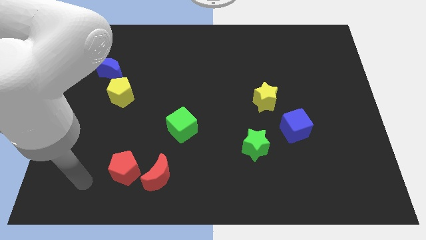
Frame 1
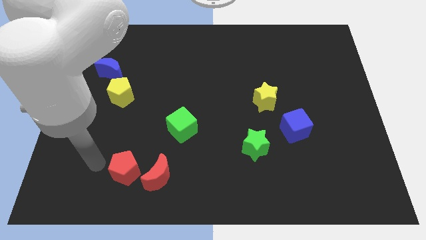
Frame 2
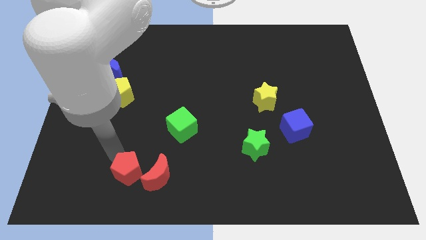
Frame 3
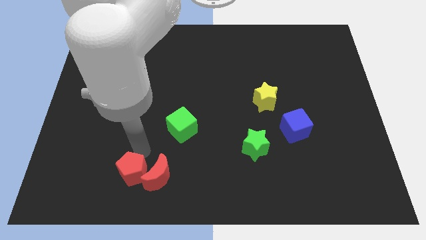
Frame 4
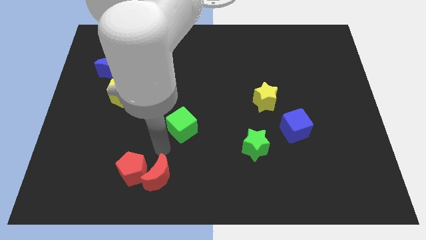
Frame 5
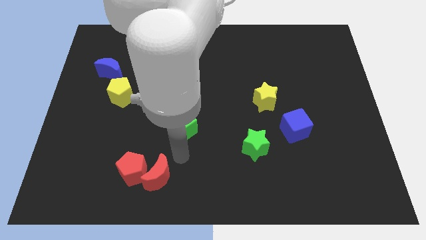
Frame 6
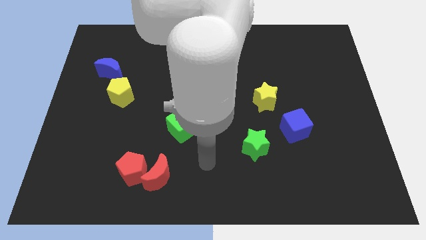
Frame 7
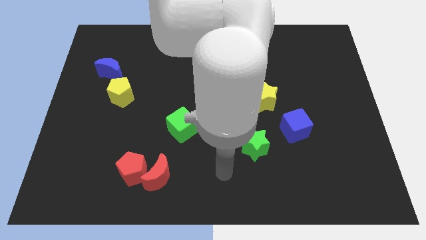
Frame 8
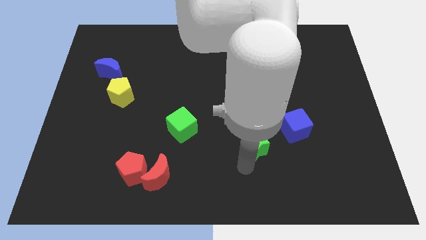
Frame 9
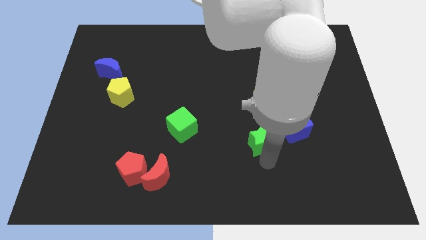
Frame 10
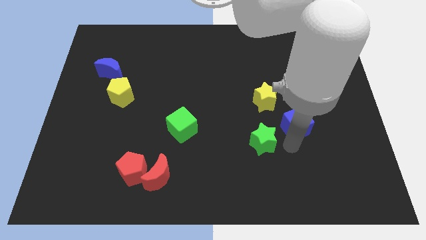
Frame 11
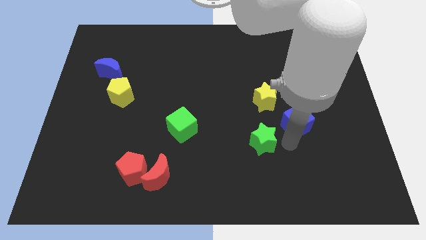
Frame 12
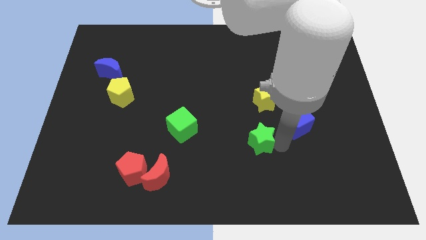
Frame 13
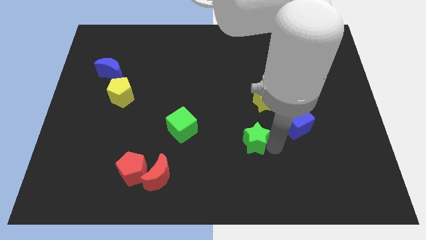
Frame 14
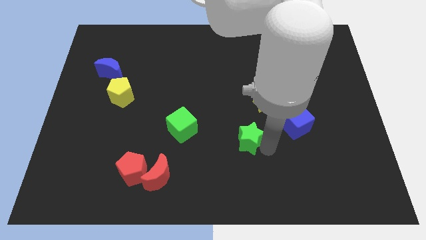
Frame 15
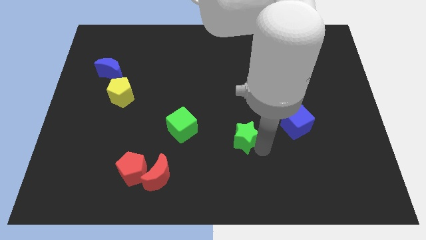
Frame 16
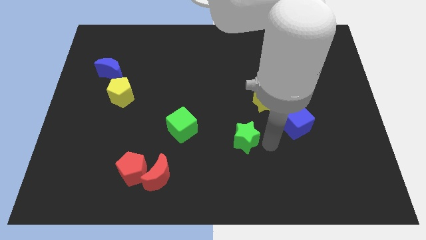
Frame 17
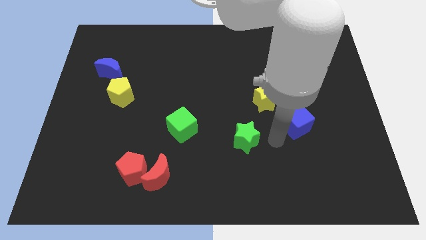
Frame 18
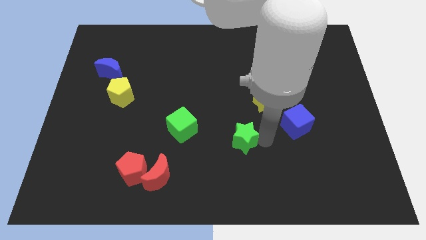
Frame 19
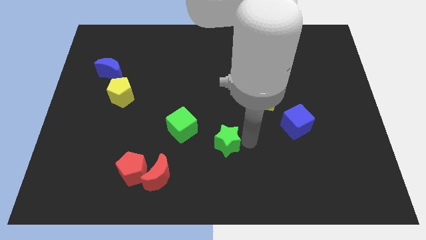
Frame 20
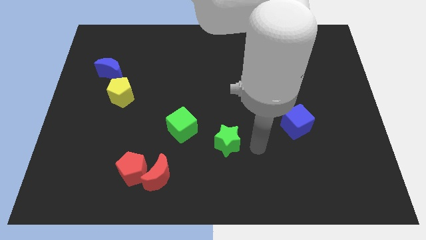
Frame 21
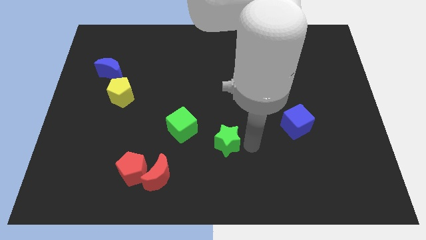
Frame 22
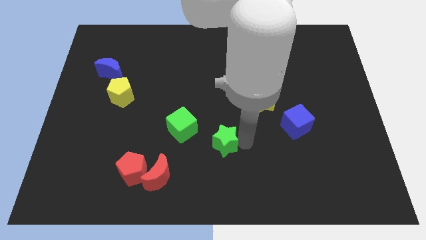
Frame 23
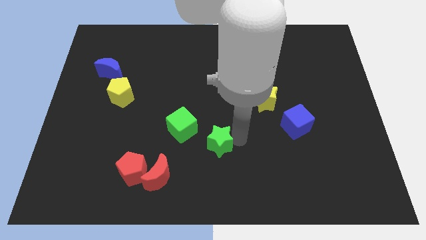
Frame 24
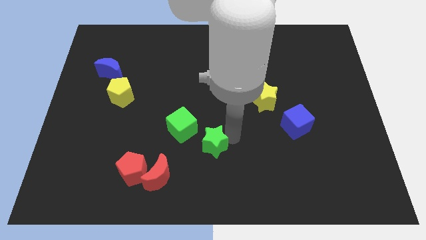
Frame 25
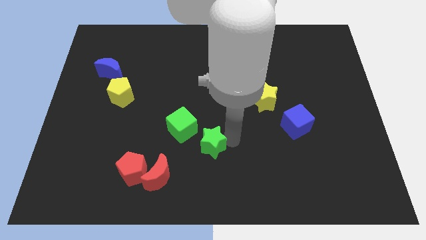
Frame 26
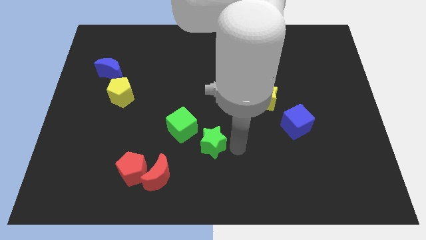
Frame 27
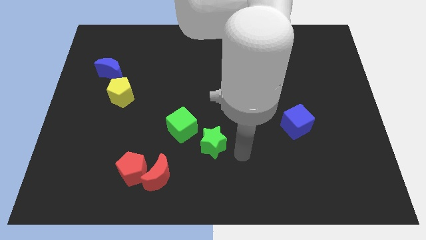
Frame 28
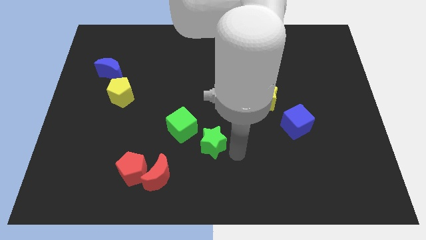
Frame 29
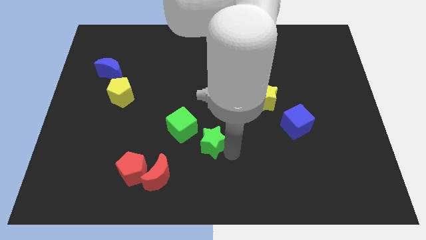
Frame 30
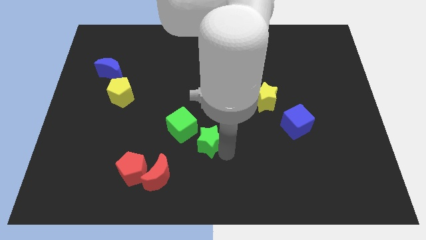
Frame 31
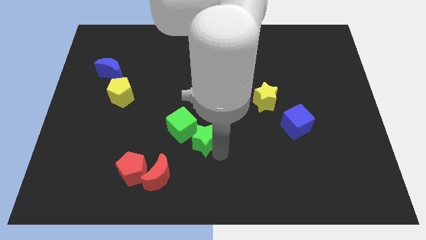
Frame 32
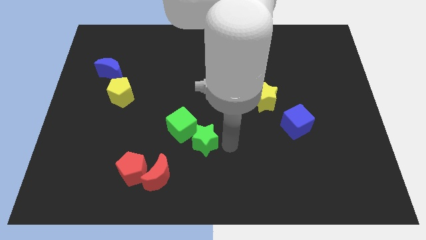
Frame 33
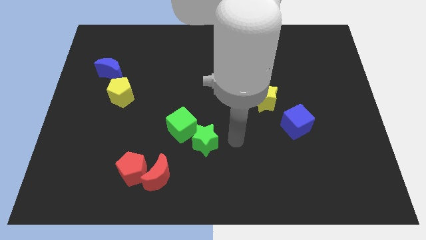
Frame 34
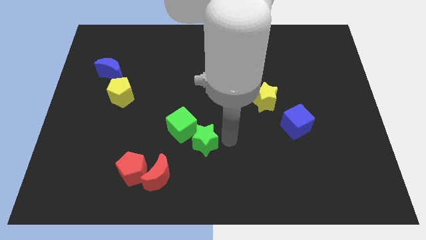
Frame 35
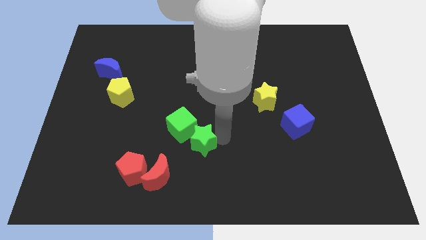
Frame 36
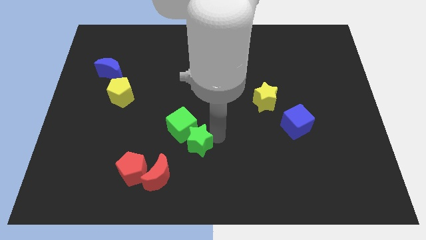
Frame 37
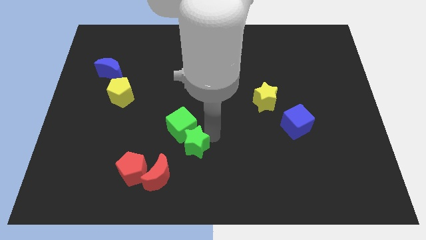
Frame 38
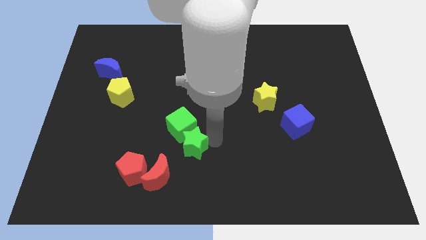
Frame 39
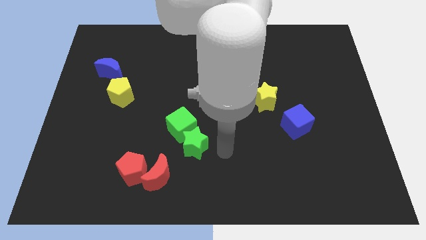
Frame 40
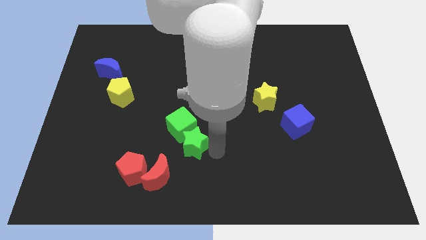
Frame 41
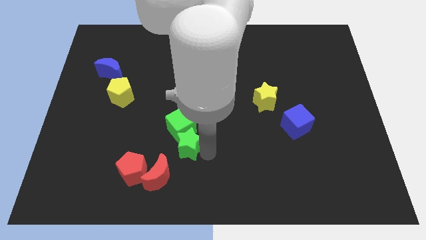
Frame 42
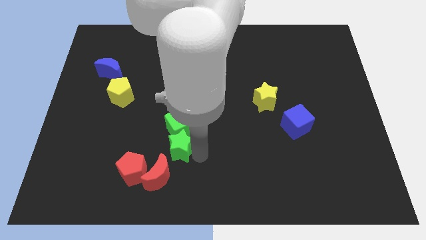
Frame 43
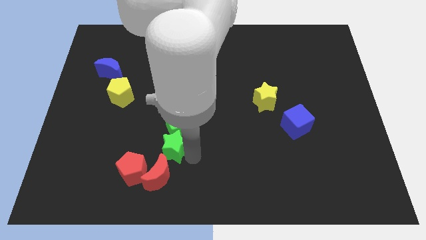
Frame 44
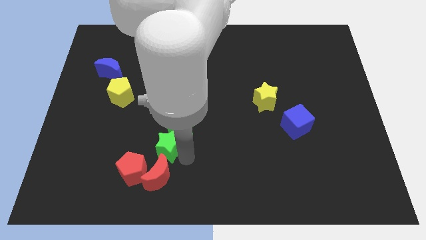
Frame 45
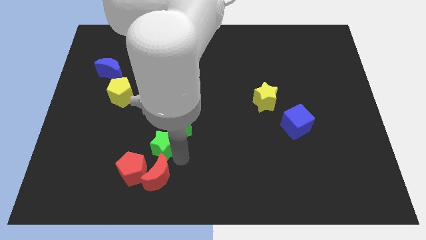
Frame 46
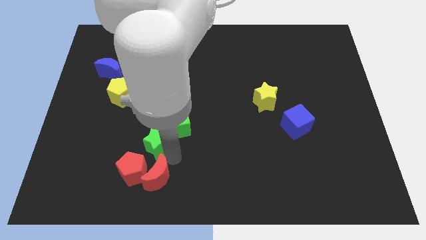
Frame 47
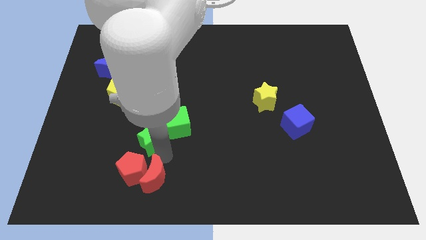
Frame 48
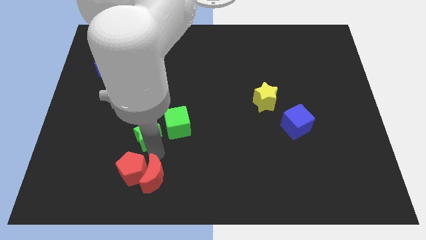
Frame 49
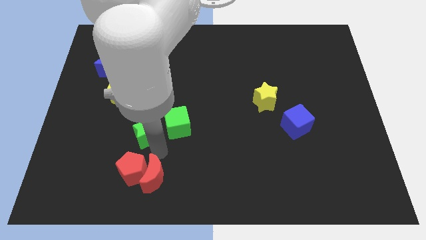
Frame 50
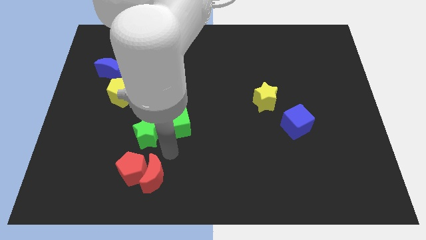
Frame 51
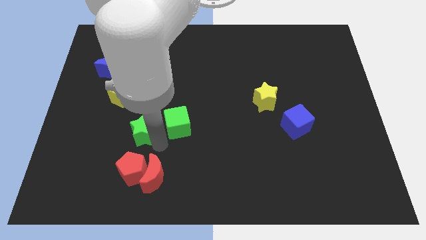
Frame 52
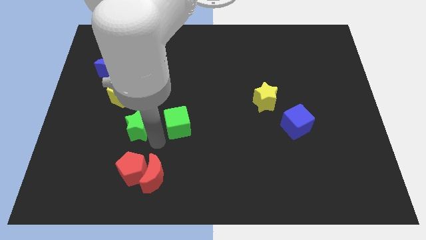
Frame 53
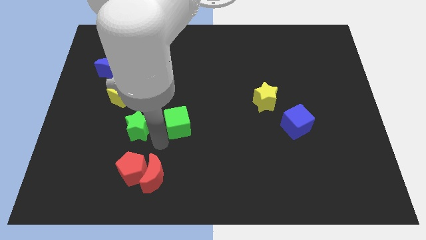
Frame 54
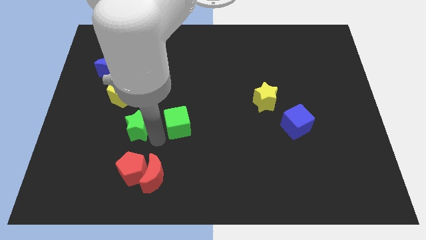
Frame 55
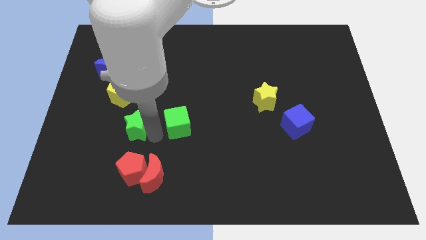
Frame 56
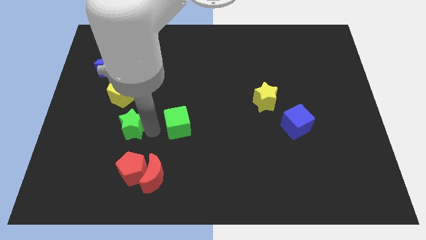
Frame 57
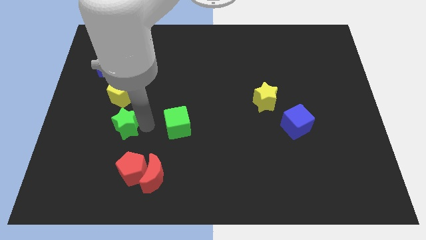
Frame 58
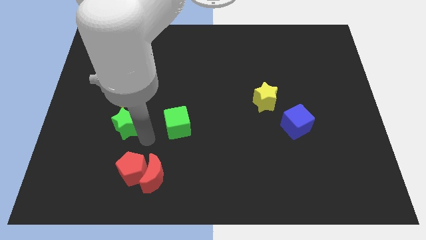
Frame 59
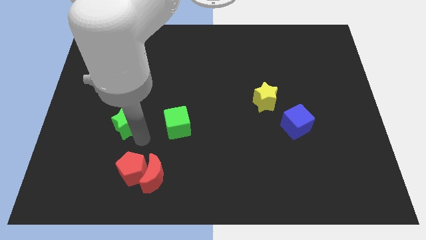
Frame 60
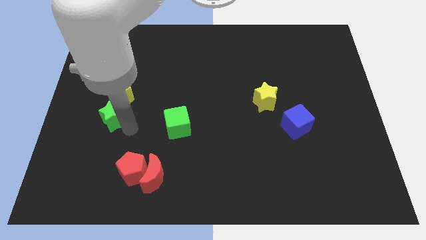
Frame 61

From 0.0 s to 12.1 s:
push the green star below the blue moon

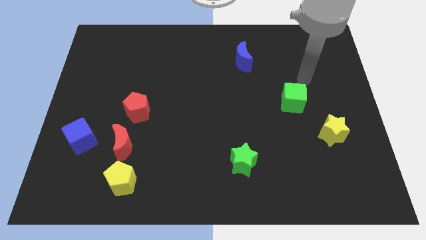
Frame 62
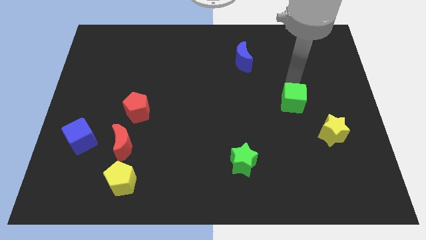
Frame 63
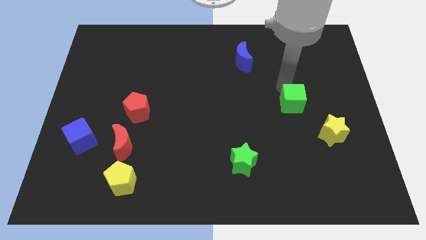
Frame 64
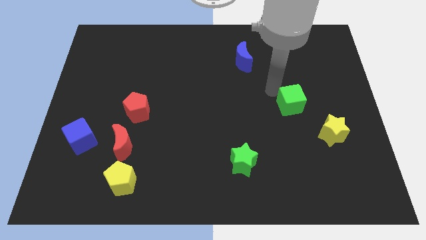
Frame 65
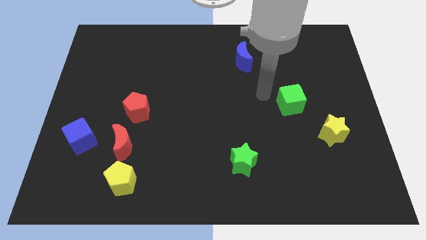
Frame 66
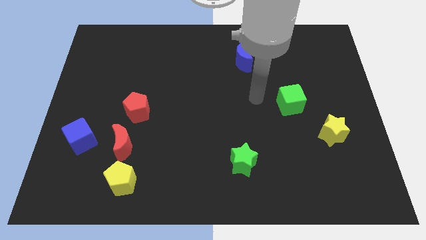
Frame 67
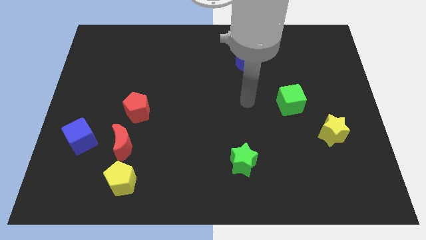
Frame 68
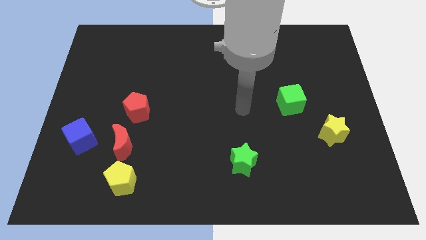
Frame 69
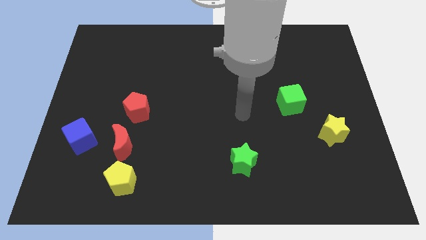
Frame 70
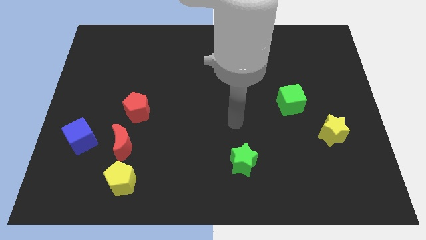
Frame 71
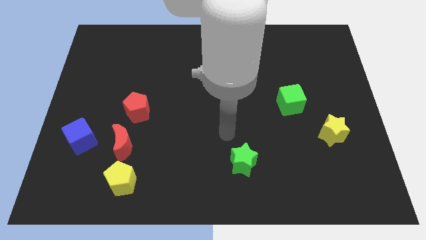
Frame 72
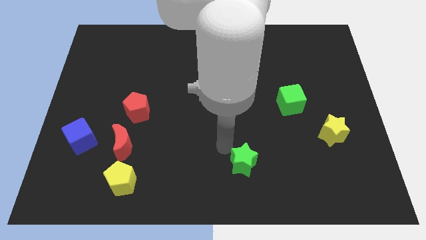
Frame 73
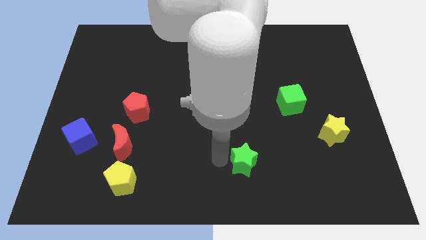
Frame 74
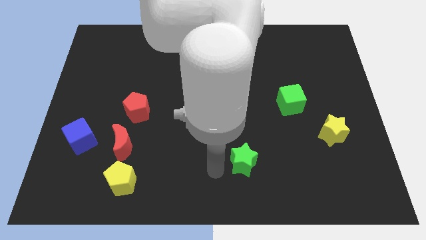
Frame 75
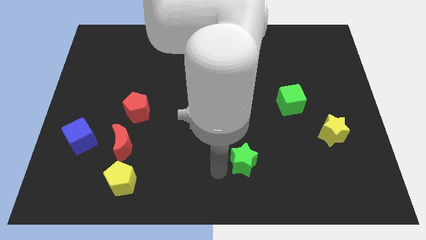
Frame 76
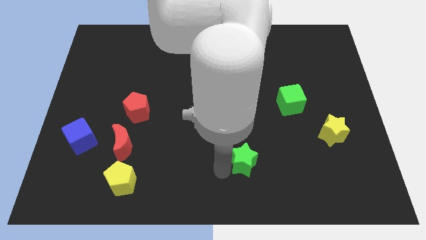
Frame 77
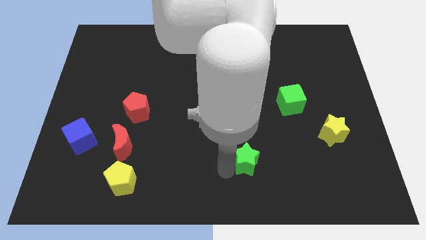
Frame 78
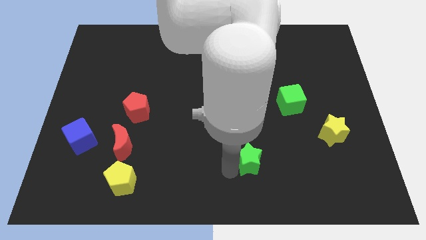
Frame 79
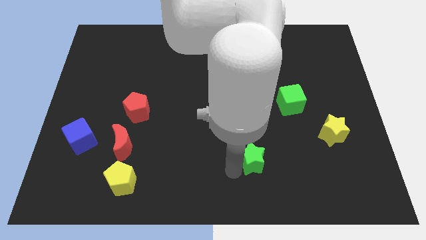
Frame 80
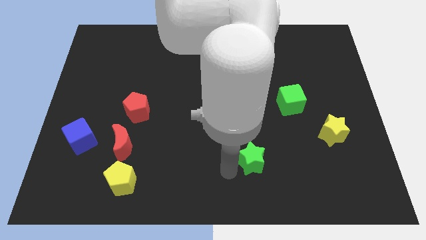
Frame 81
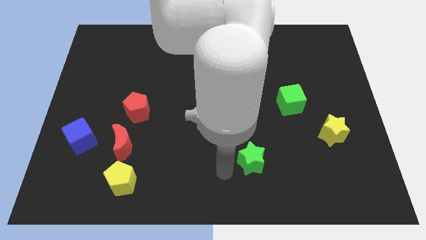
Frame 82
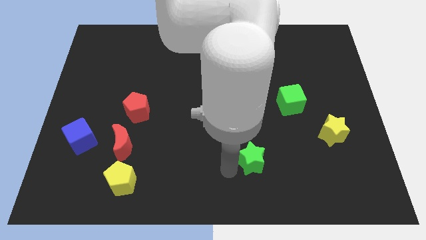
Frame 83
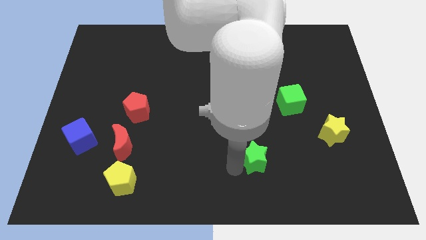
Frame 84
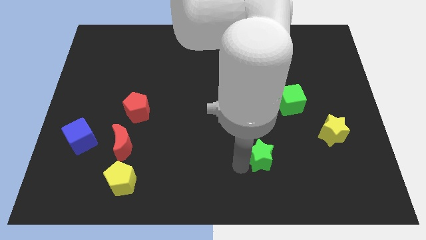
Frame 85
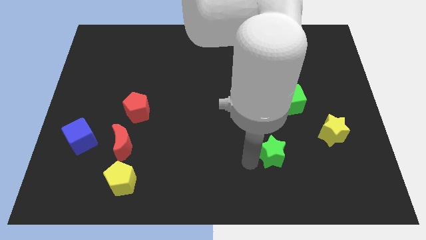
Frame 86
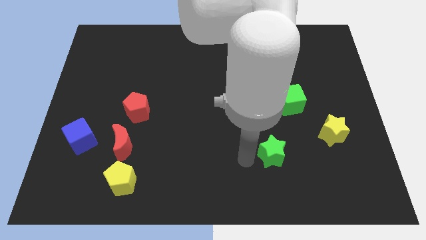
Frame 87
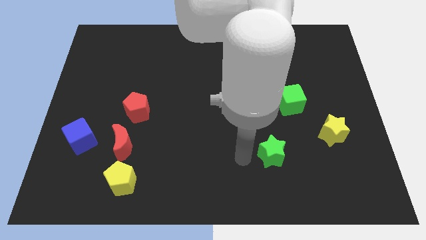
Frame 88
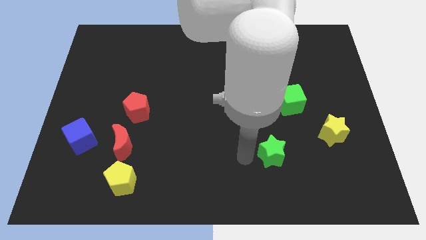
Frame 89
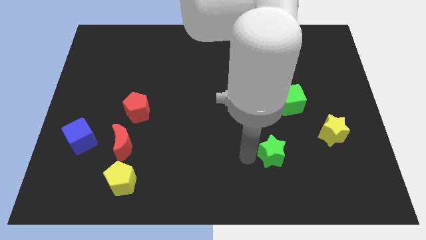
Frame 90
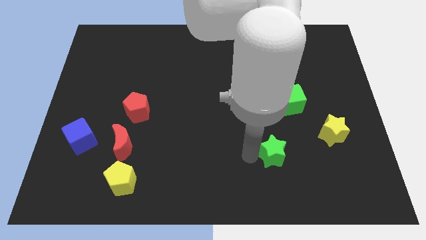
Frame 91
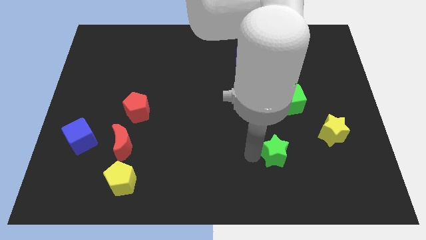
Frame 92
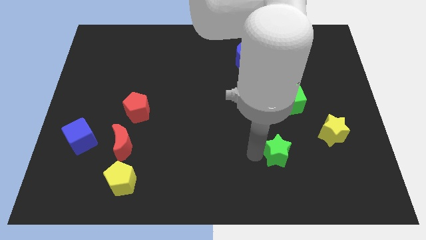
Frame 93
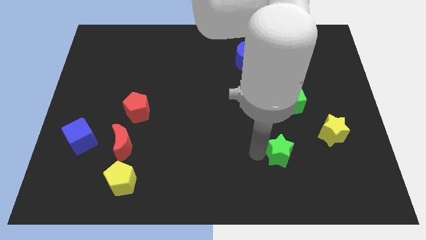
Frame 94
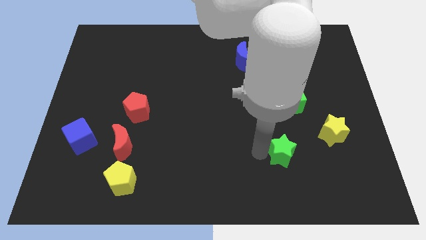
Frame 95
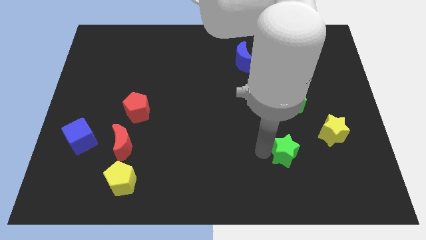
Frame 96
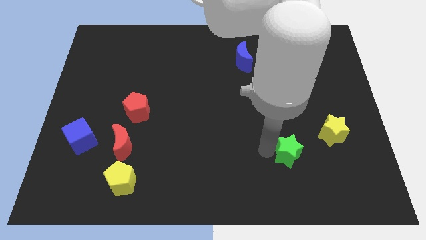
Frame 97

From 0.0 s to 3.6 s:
put the green star diagonally down and to the left of the yellow star
